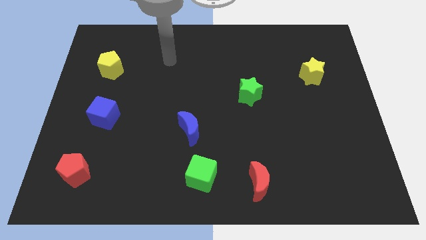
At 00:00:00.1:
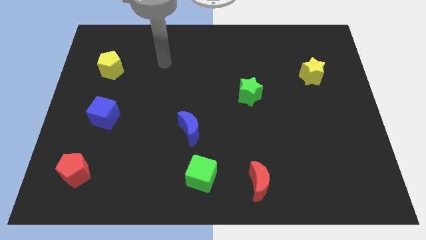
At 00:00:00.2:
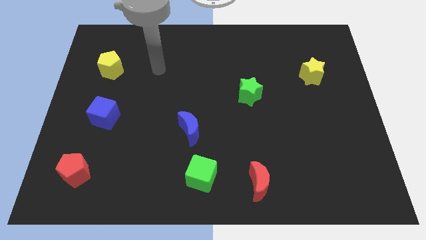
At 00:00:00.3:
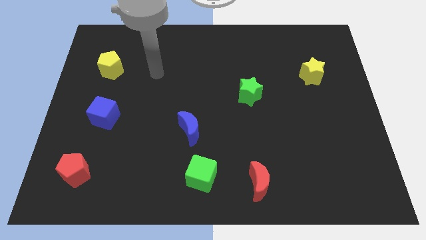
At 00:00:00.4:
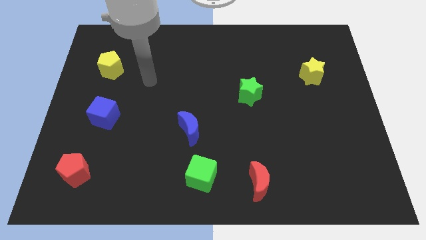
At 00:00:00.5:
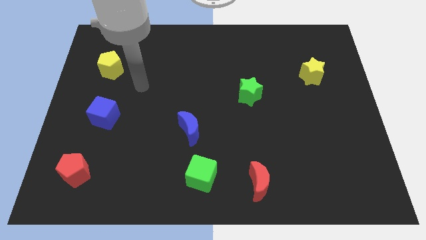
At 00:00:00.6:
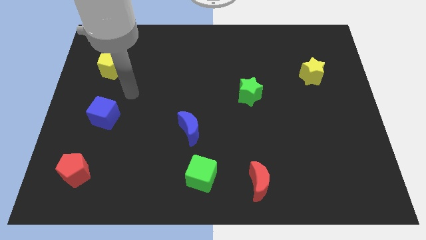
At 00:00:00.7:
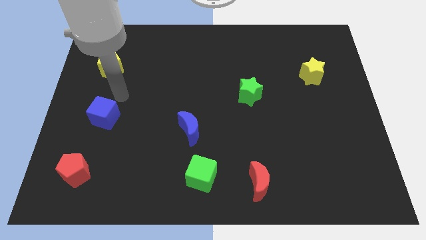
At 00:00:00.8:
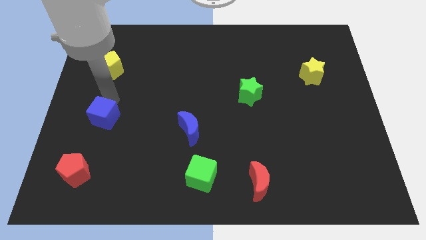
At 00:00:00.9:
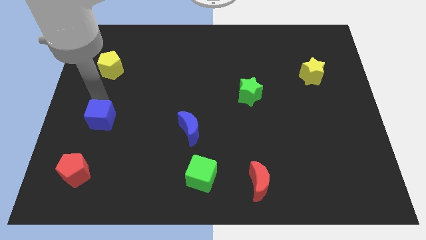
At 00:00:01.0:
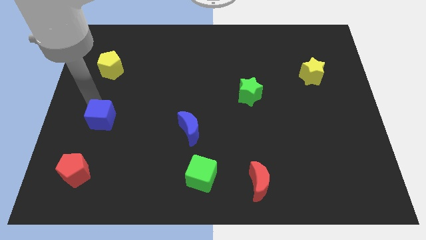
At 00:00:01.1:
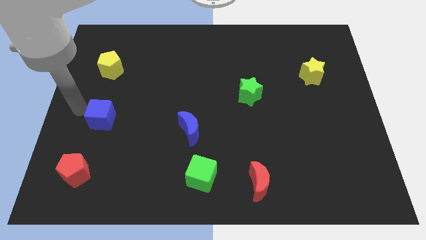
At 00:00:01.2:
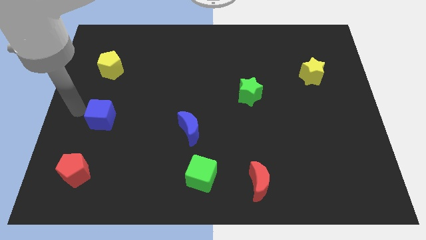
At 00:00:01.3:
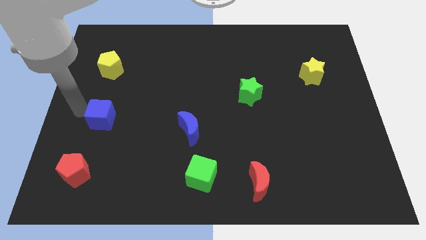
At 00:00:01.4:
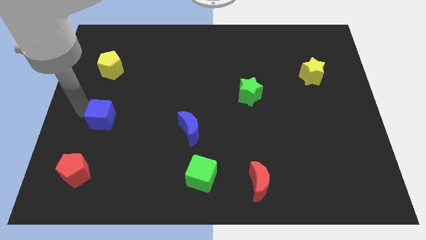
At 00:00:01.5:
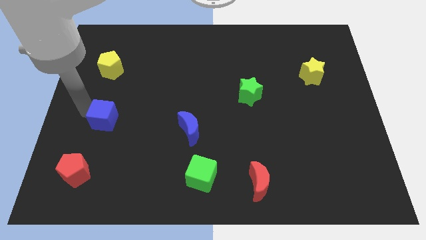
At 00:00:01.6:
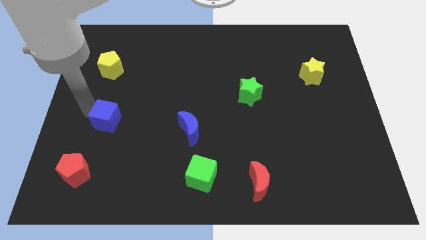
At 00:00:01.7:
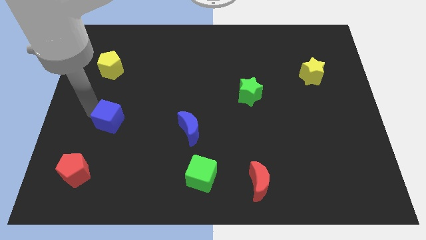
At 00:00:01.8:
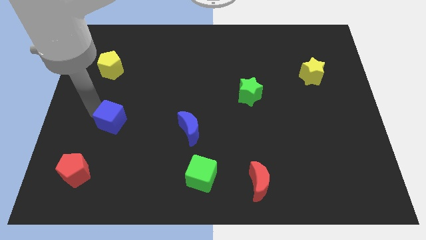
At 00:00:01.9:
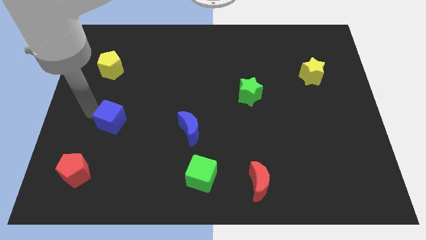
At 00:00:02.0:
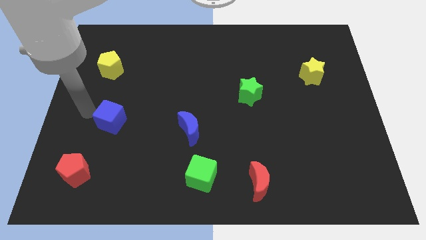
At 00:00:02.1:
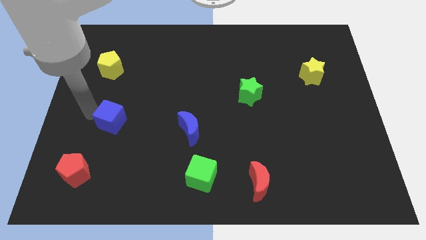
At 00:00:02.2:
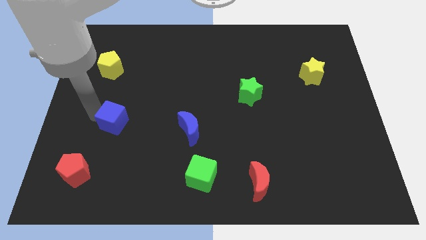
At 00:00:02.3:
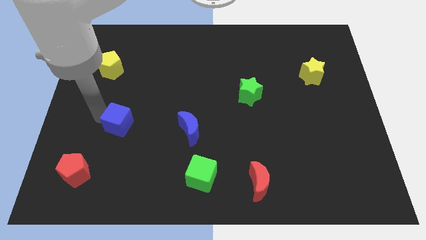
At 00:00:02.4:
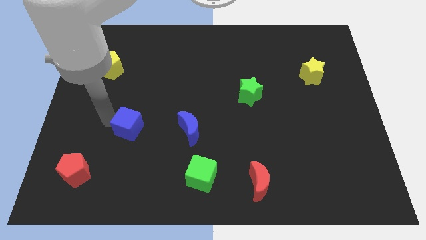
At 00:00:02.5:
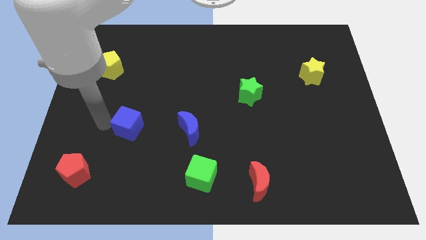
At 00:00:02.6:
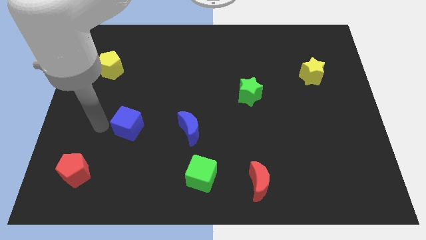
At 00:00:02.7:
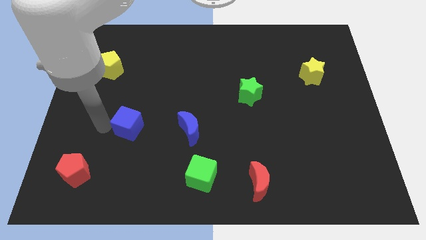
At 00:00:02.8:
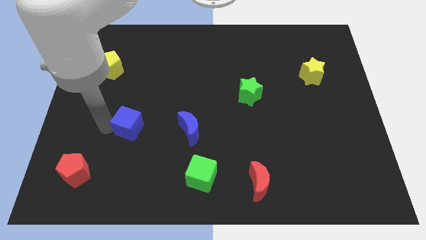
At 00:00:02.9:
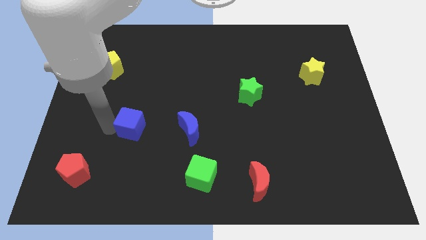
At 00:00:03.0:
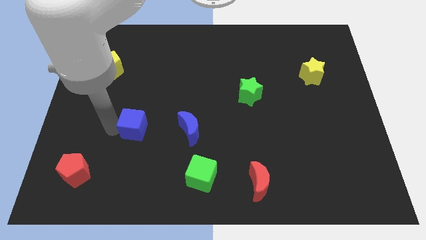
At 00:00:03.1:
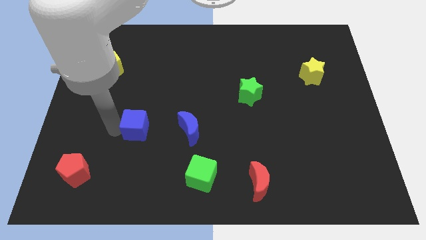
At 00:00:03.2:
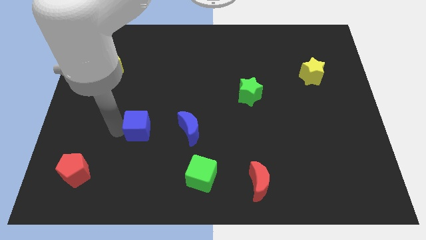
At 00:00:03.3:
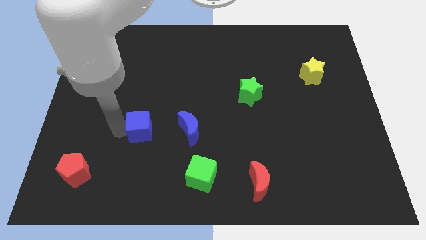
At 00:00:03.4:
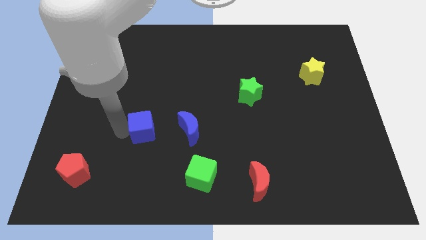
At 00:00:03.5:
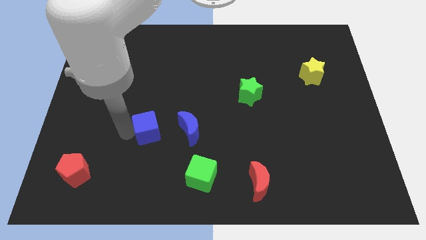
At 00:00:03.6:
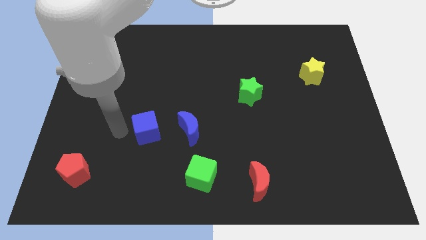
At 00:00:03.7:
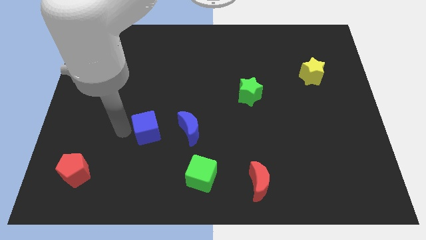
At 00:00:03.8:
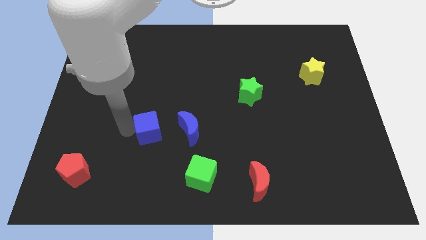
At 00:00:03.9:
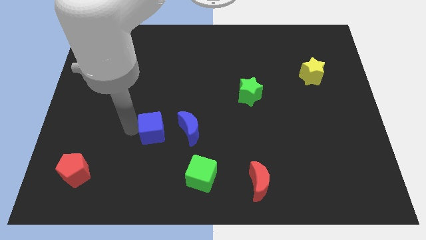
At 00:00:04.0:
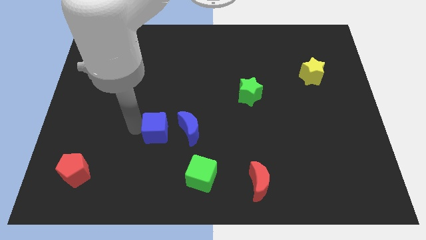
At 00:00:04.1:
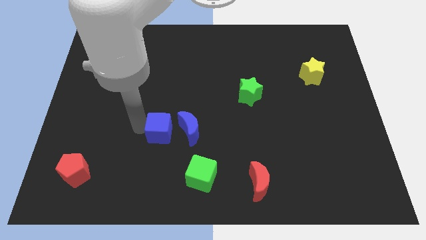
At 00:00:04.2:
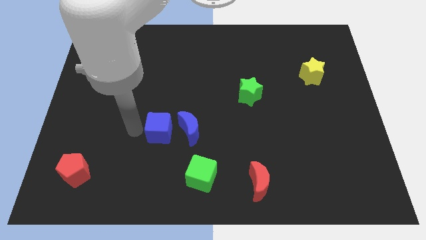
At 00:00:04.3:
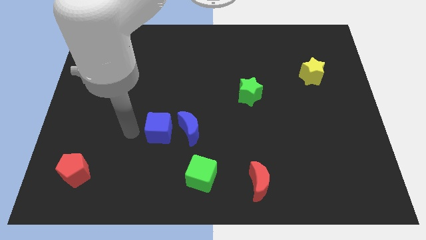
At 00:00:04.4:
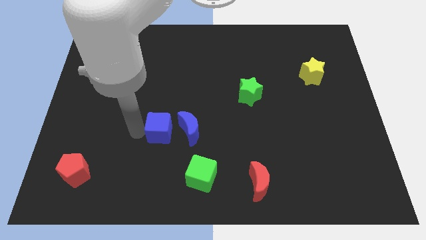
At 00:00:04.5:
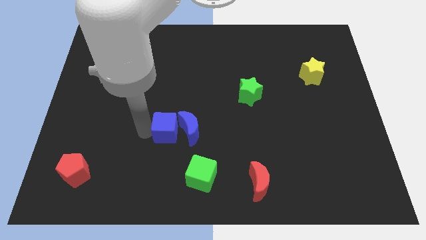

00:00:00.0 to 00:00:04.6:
put the blue cube towards the blue moon

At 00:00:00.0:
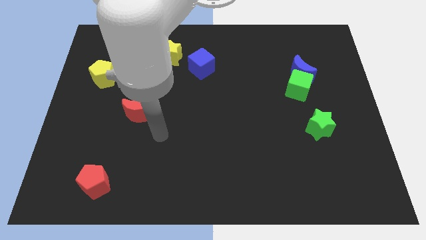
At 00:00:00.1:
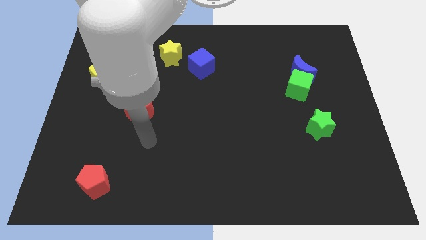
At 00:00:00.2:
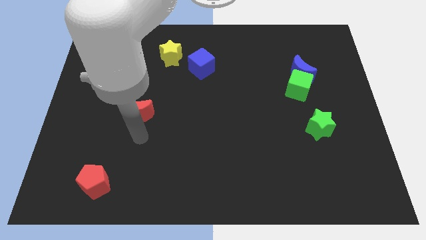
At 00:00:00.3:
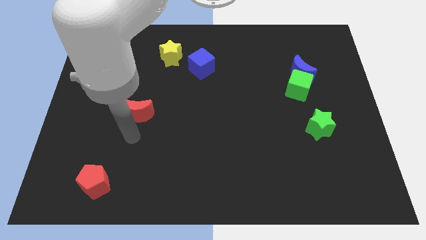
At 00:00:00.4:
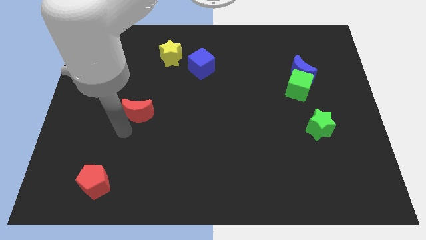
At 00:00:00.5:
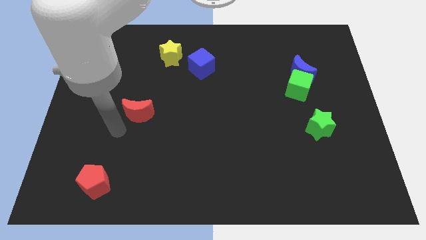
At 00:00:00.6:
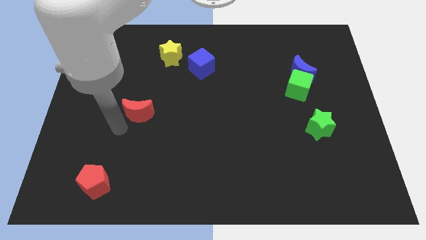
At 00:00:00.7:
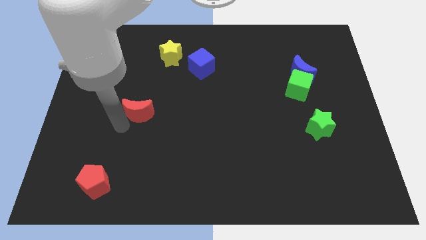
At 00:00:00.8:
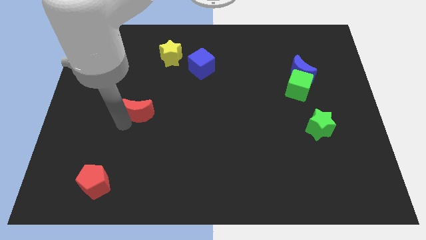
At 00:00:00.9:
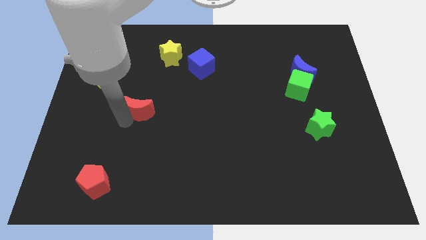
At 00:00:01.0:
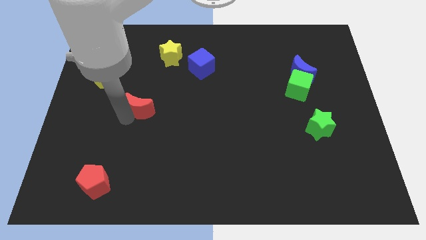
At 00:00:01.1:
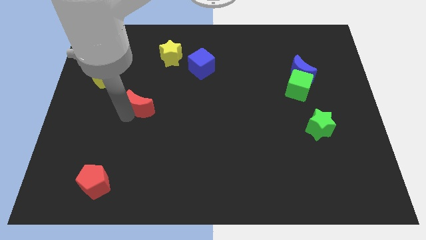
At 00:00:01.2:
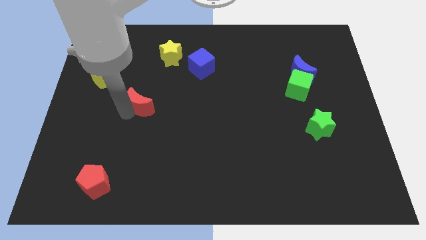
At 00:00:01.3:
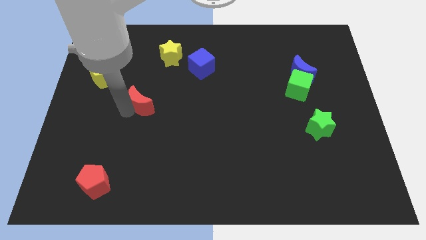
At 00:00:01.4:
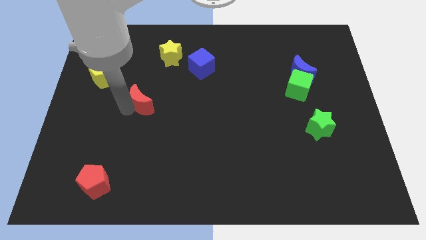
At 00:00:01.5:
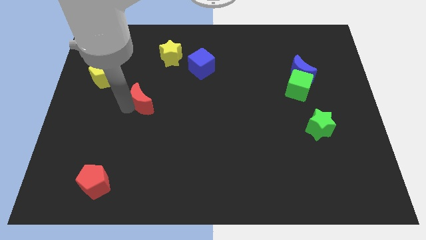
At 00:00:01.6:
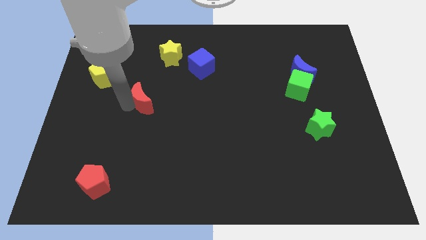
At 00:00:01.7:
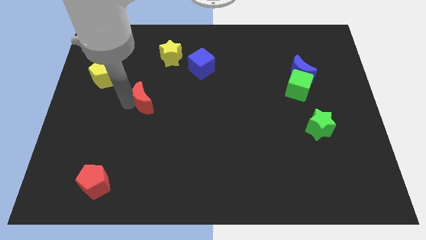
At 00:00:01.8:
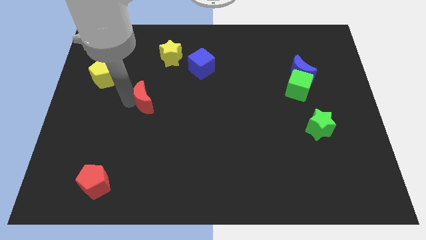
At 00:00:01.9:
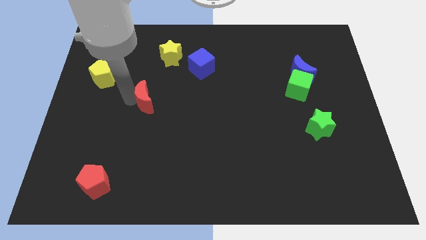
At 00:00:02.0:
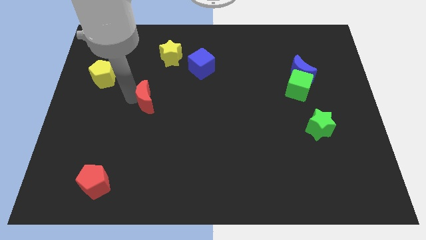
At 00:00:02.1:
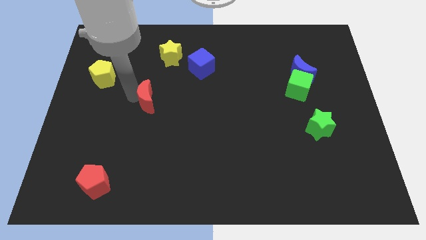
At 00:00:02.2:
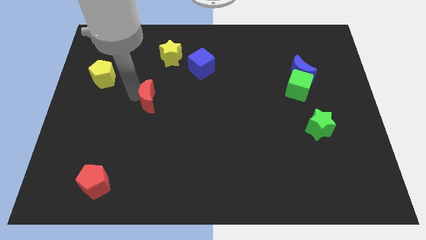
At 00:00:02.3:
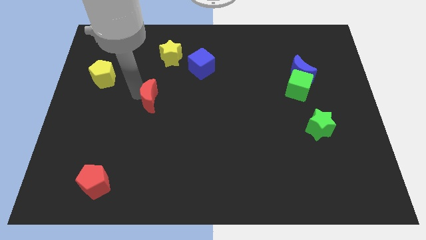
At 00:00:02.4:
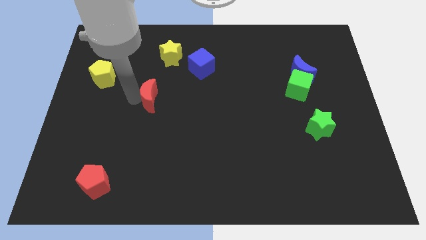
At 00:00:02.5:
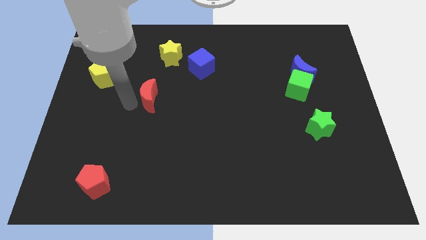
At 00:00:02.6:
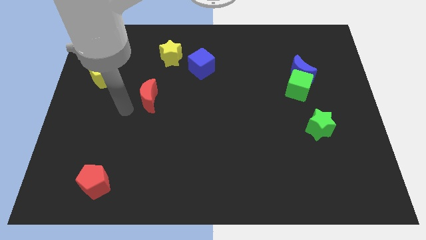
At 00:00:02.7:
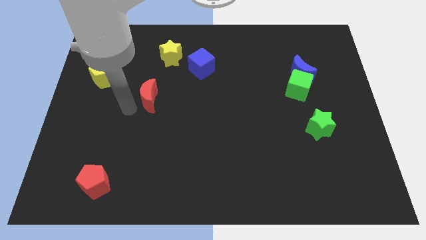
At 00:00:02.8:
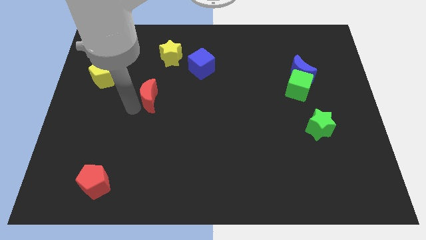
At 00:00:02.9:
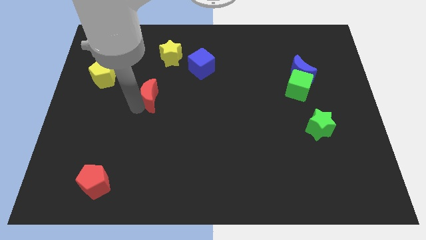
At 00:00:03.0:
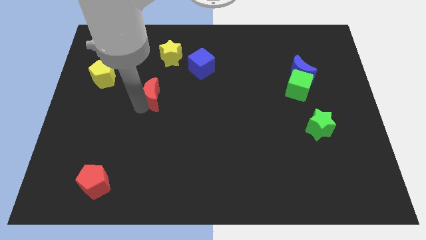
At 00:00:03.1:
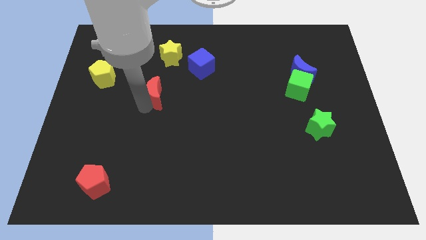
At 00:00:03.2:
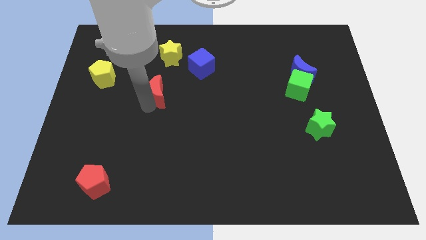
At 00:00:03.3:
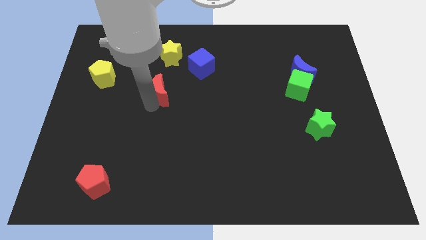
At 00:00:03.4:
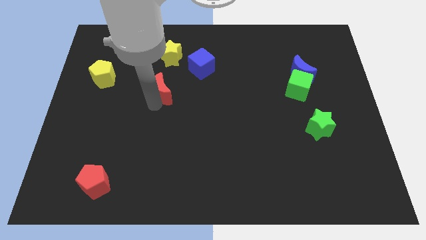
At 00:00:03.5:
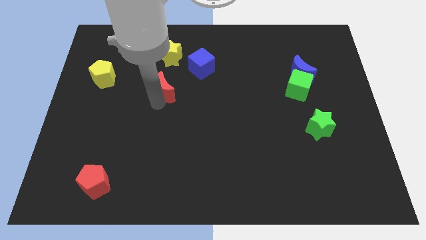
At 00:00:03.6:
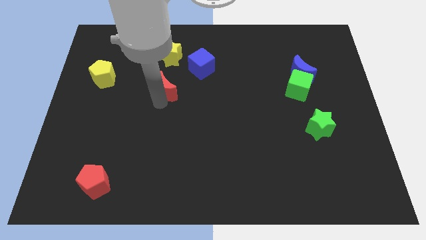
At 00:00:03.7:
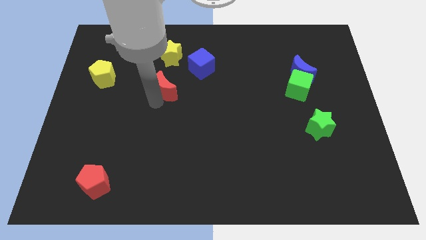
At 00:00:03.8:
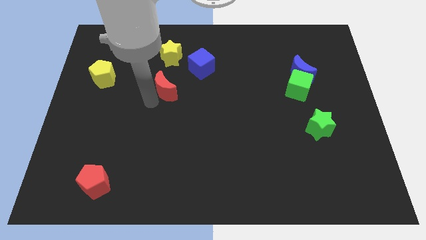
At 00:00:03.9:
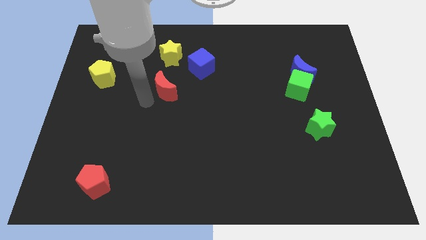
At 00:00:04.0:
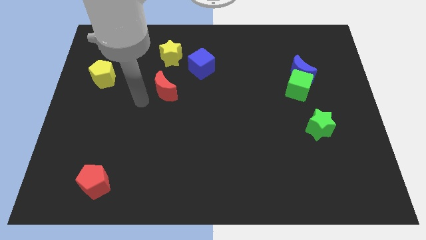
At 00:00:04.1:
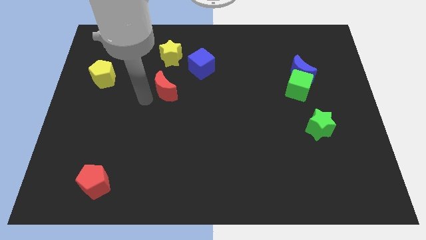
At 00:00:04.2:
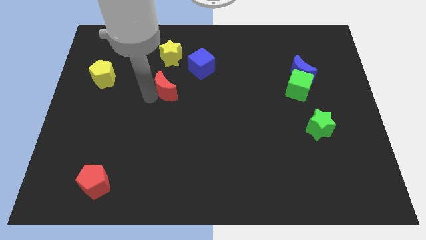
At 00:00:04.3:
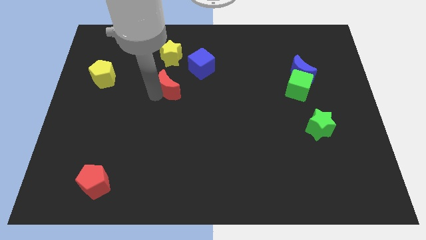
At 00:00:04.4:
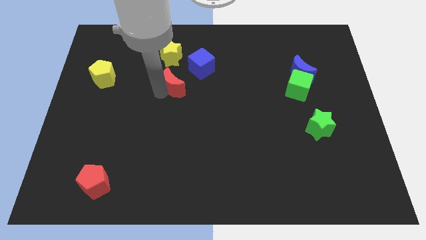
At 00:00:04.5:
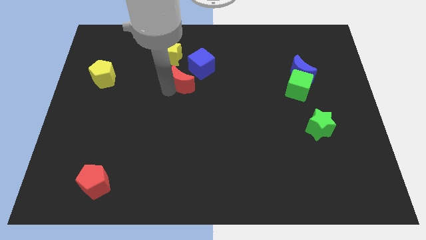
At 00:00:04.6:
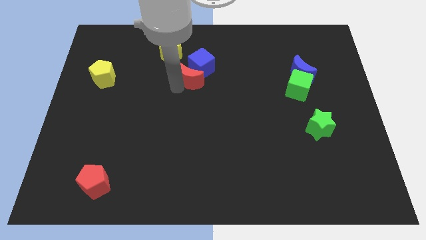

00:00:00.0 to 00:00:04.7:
push the red moon towards the blue cube
